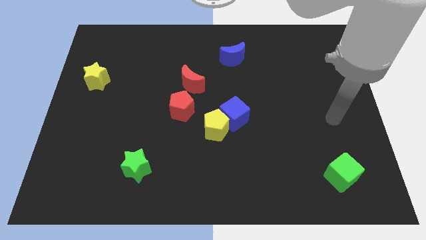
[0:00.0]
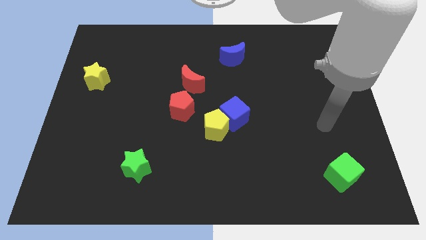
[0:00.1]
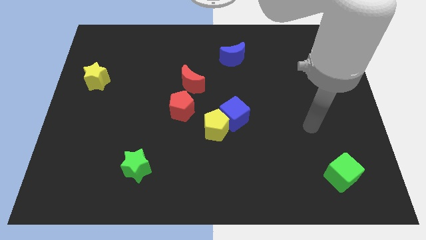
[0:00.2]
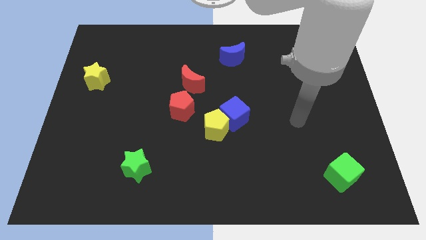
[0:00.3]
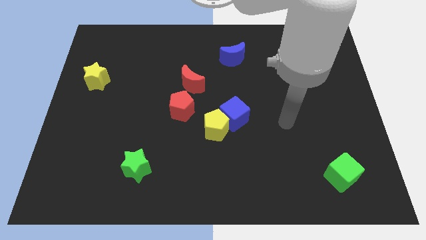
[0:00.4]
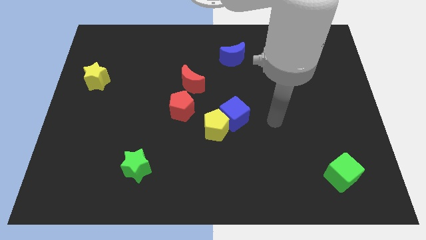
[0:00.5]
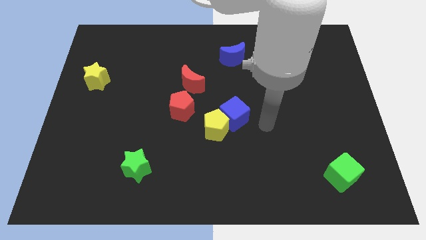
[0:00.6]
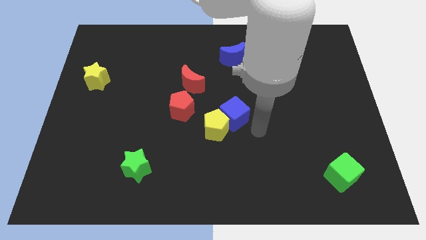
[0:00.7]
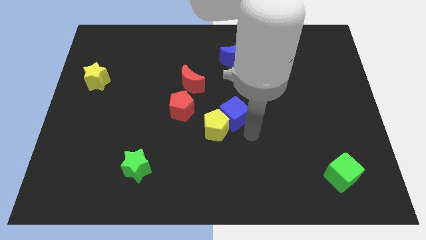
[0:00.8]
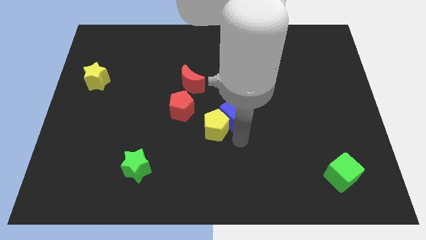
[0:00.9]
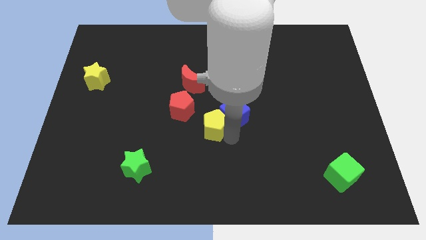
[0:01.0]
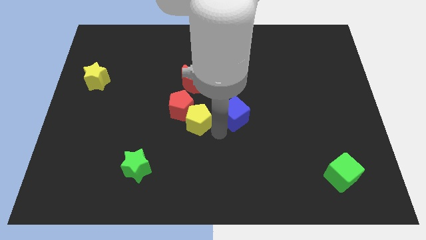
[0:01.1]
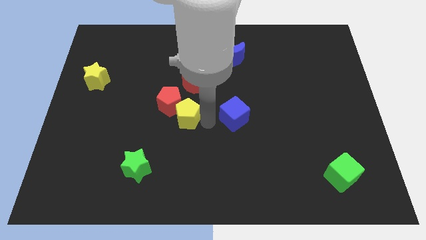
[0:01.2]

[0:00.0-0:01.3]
move the blue cube away from the yellow pentagon

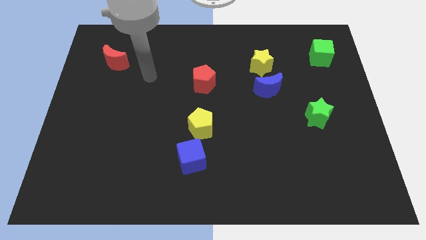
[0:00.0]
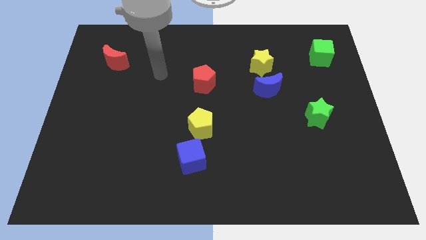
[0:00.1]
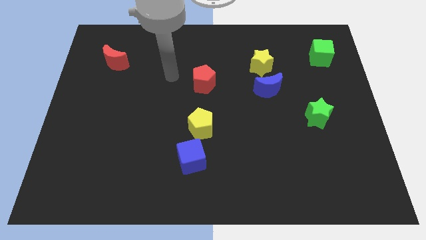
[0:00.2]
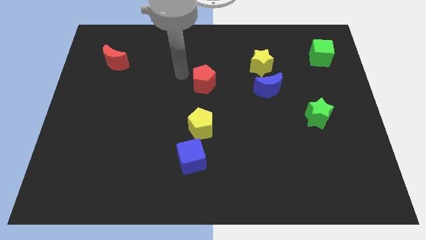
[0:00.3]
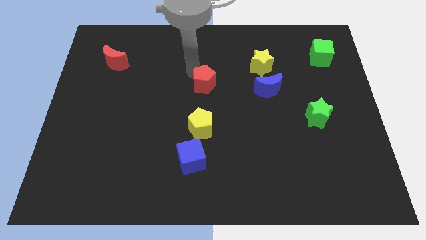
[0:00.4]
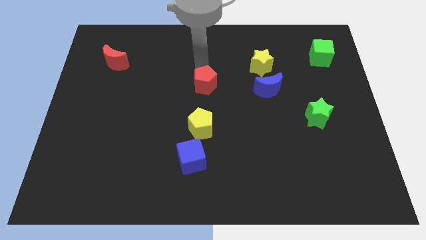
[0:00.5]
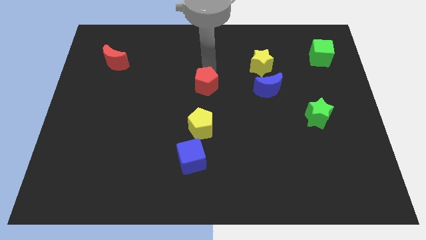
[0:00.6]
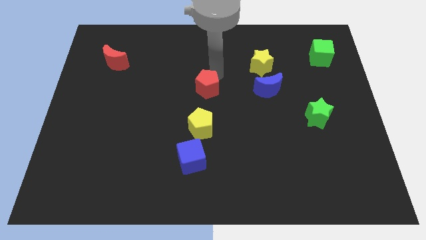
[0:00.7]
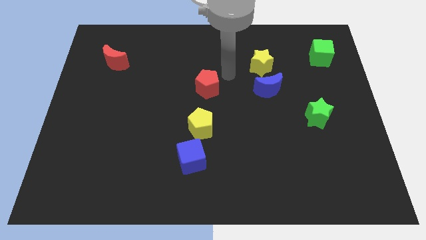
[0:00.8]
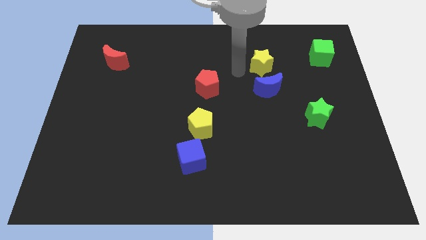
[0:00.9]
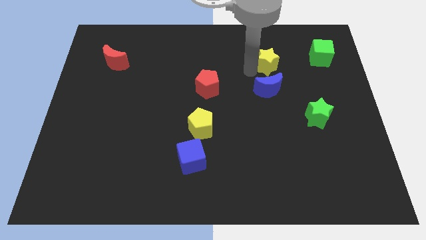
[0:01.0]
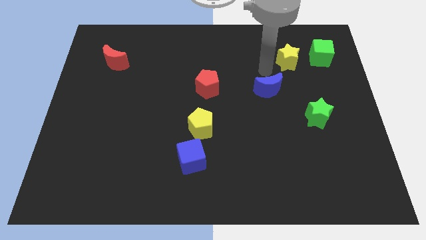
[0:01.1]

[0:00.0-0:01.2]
separate the blue moon from the yellow star

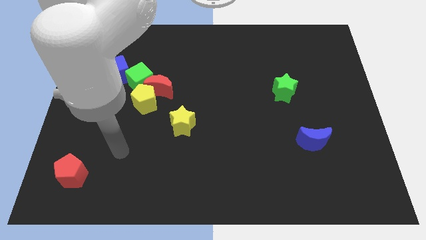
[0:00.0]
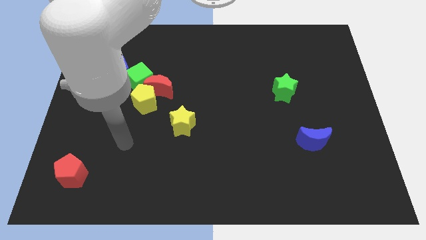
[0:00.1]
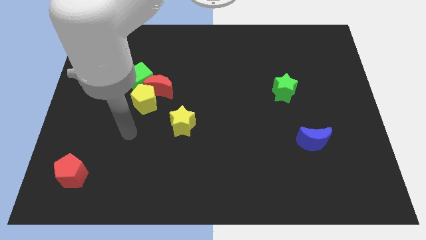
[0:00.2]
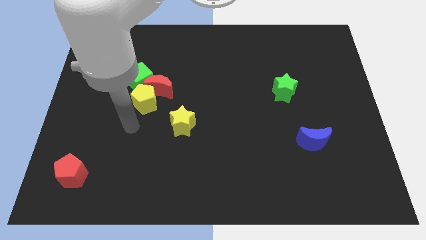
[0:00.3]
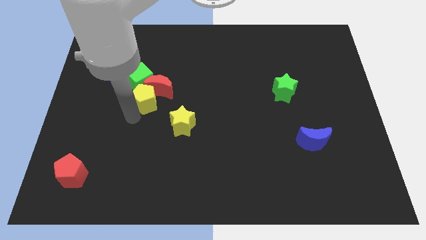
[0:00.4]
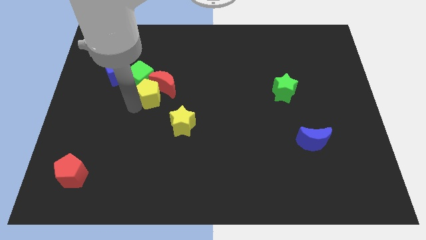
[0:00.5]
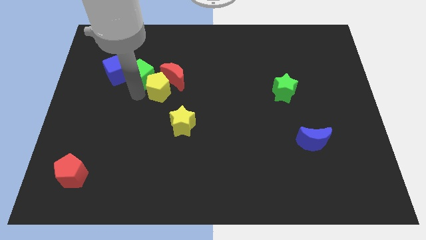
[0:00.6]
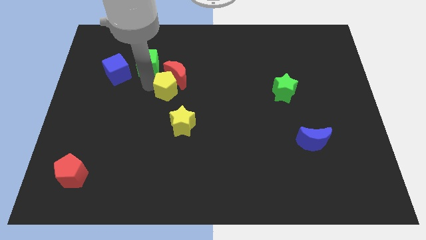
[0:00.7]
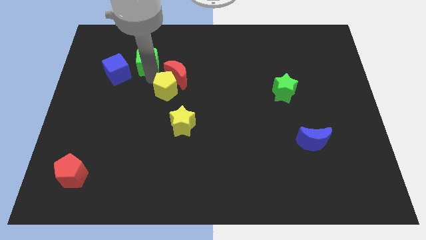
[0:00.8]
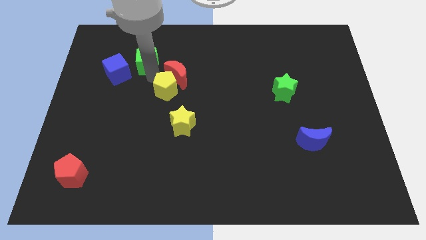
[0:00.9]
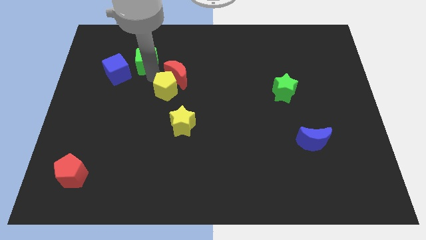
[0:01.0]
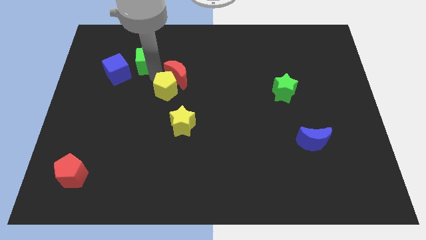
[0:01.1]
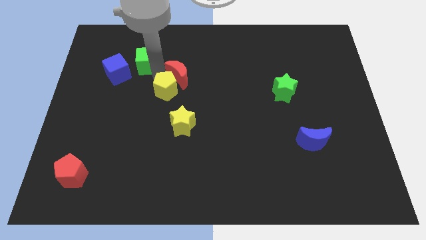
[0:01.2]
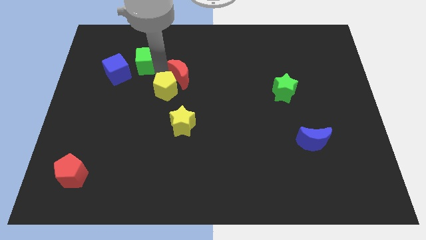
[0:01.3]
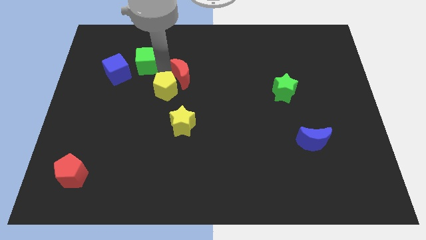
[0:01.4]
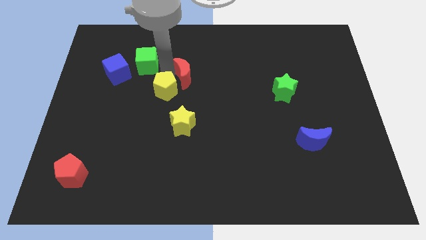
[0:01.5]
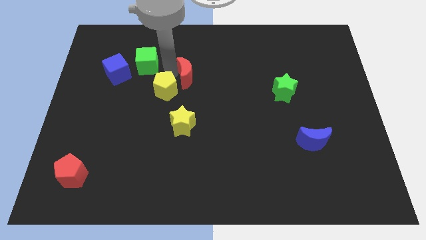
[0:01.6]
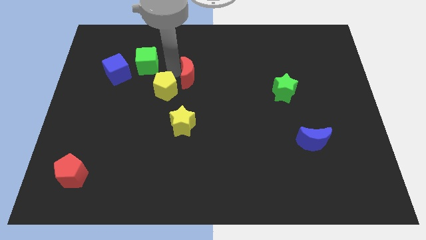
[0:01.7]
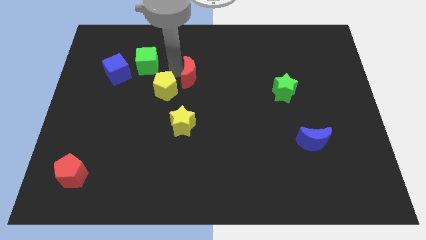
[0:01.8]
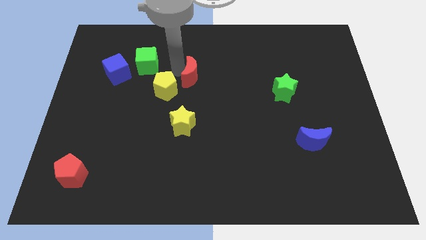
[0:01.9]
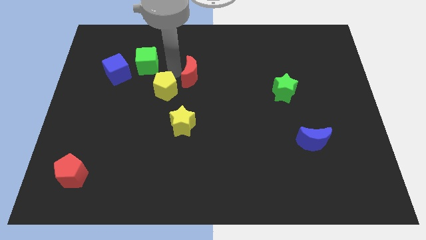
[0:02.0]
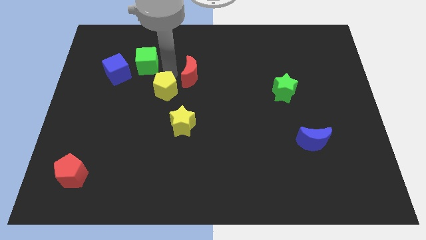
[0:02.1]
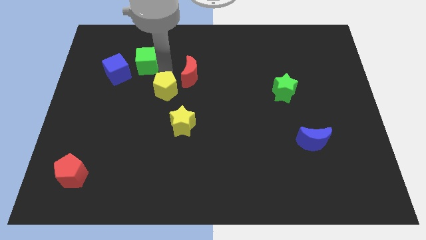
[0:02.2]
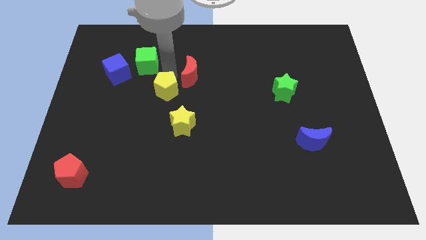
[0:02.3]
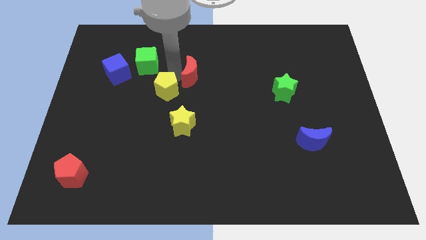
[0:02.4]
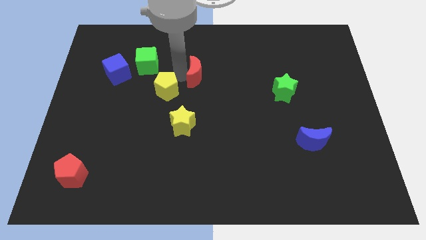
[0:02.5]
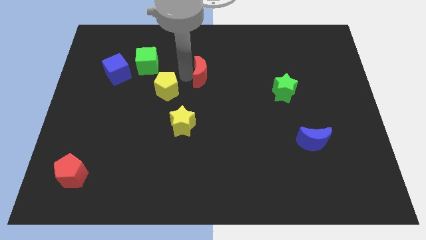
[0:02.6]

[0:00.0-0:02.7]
move the red moon away from the yellow pentagon and green cube

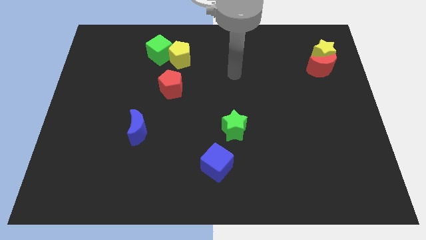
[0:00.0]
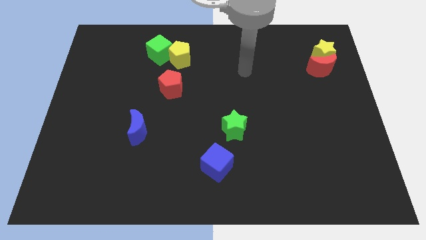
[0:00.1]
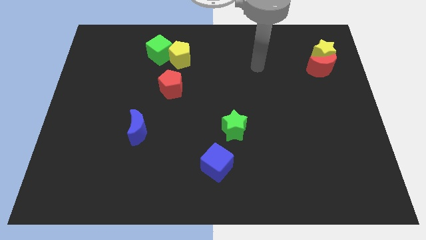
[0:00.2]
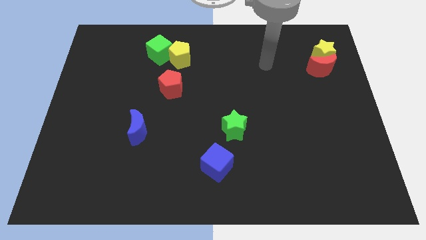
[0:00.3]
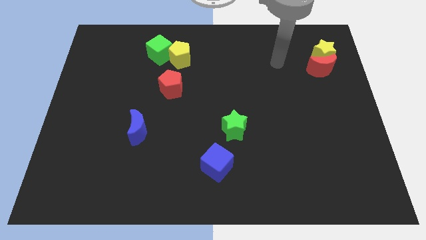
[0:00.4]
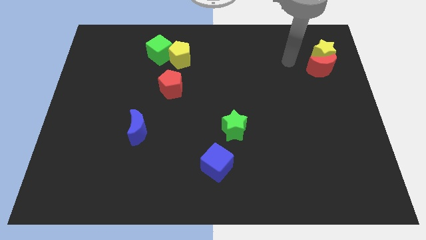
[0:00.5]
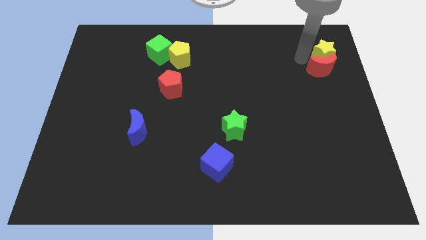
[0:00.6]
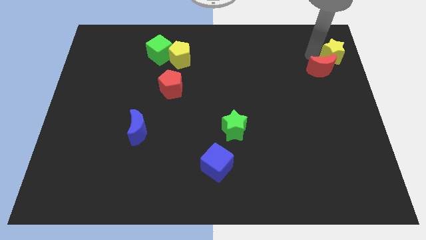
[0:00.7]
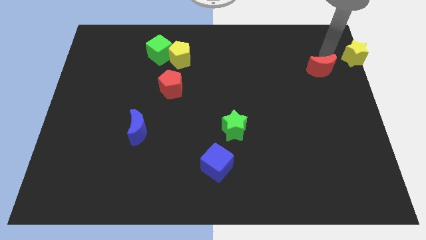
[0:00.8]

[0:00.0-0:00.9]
separate the red moon from the yellow star

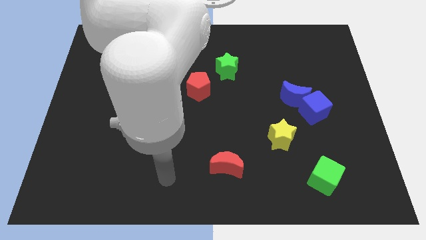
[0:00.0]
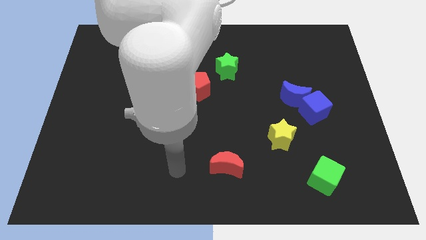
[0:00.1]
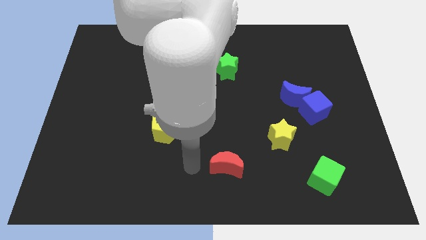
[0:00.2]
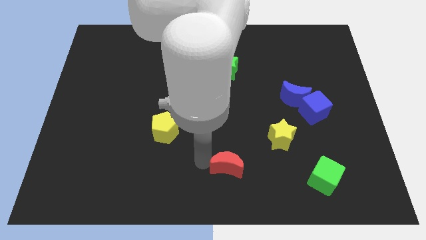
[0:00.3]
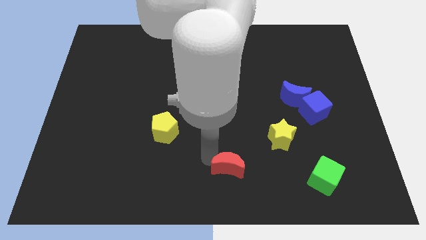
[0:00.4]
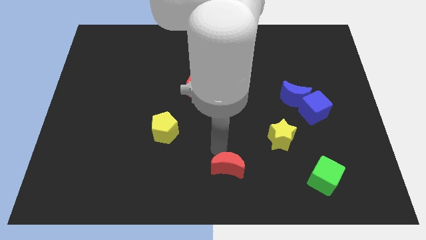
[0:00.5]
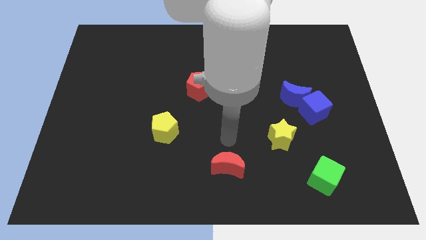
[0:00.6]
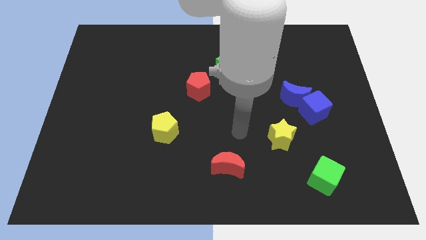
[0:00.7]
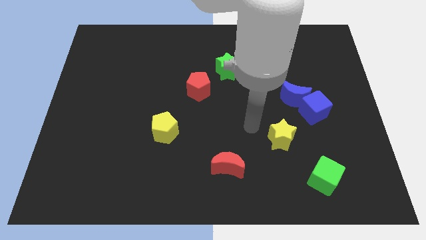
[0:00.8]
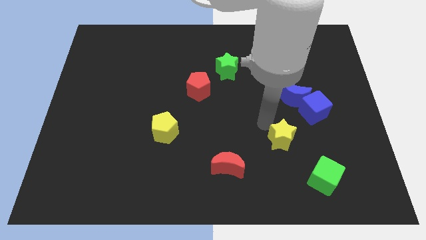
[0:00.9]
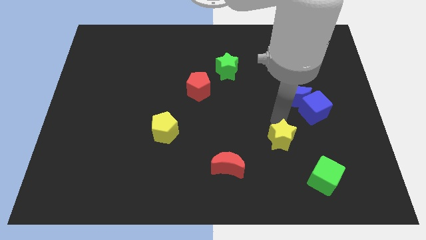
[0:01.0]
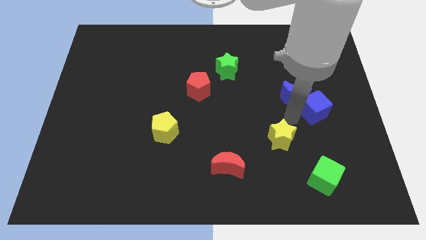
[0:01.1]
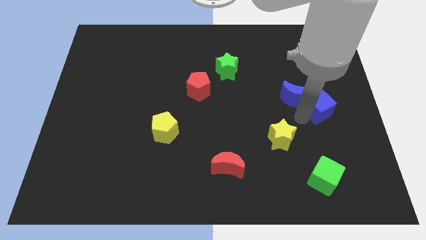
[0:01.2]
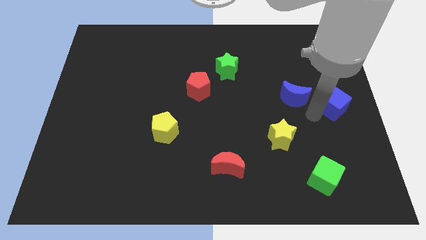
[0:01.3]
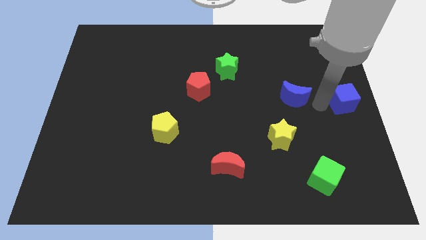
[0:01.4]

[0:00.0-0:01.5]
separate the blue moon from the blue cube

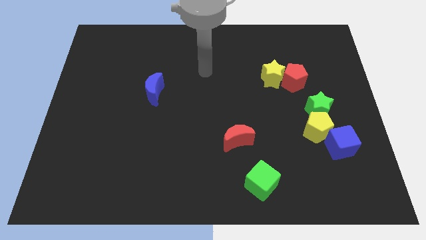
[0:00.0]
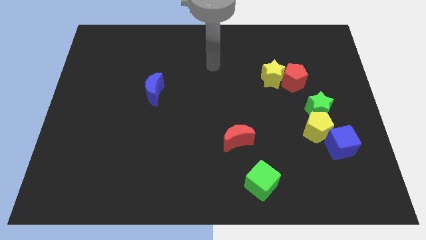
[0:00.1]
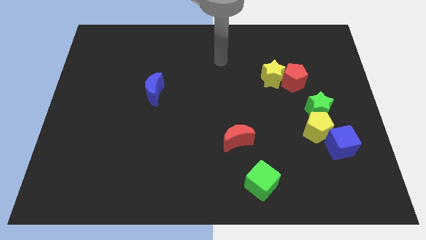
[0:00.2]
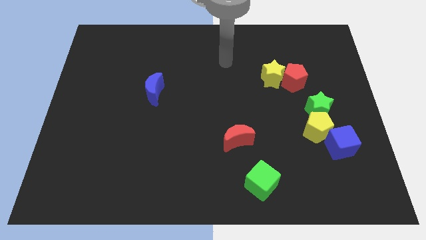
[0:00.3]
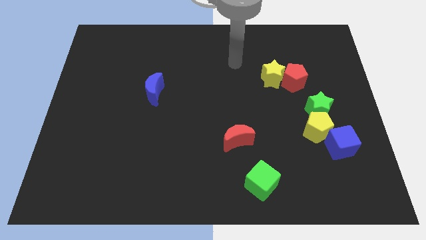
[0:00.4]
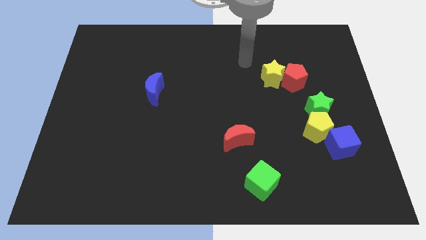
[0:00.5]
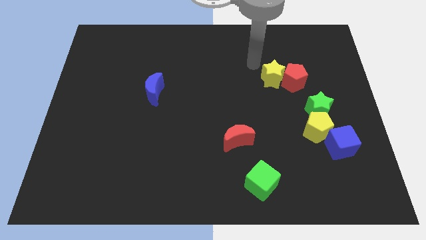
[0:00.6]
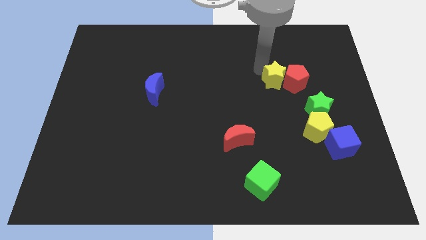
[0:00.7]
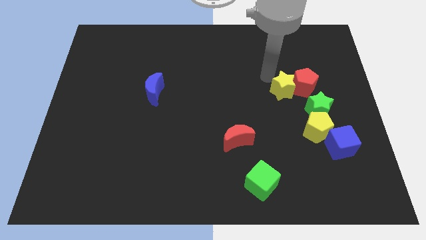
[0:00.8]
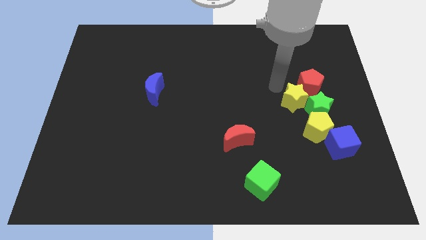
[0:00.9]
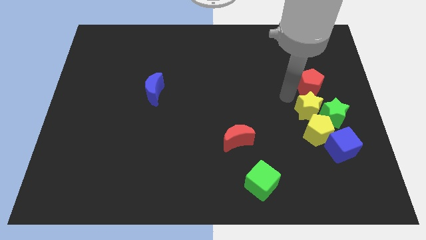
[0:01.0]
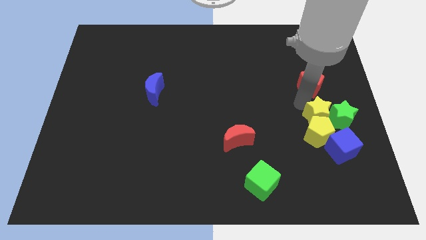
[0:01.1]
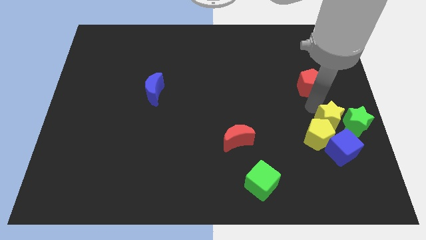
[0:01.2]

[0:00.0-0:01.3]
separate the red pentagon from the yellow star

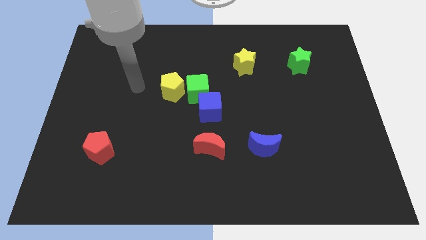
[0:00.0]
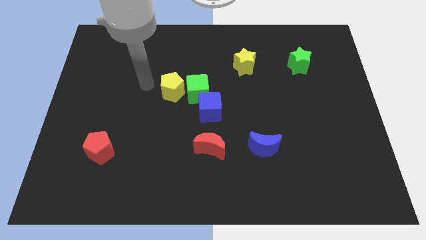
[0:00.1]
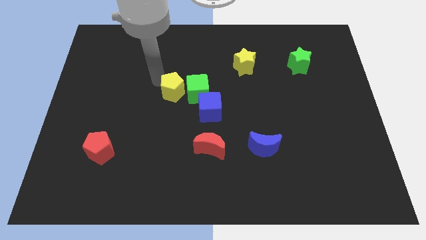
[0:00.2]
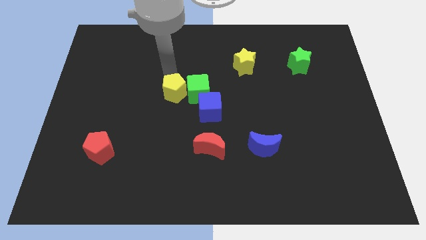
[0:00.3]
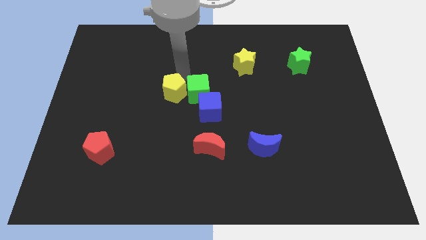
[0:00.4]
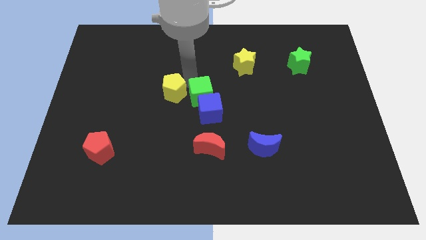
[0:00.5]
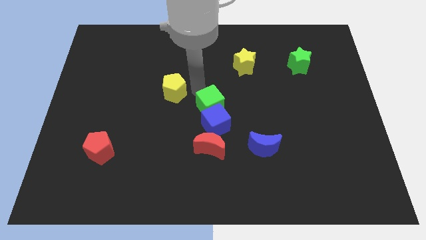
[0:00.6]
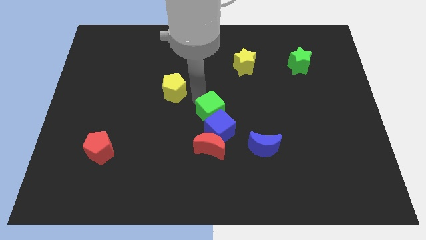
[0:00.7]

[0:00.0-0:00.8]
pull the yellow pentagon apart from the green cube
